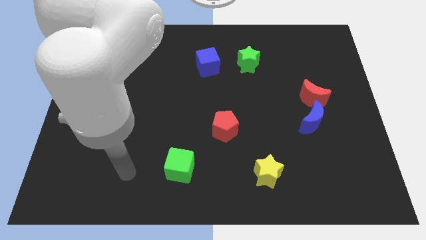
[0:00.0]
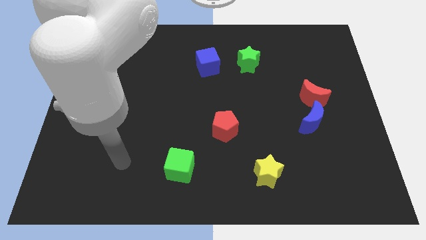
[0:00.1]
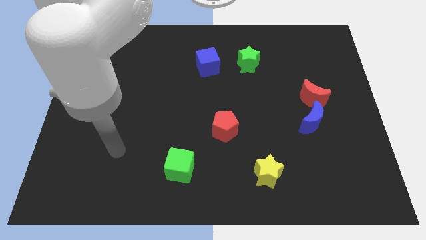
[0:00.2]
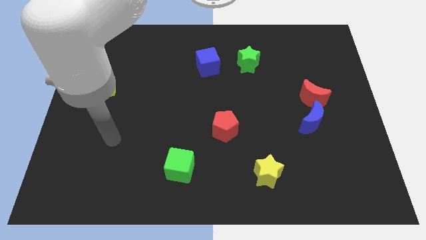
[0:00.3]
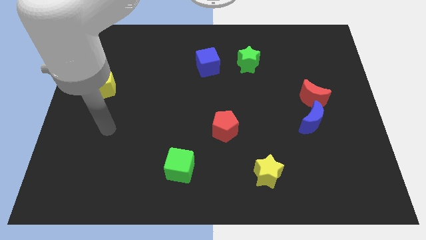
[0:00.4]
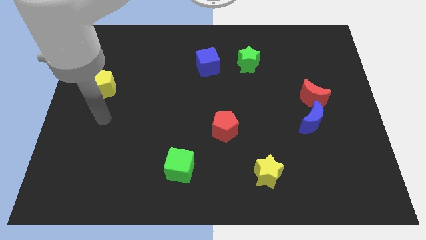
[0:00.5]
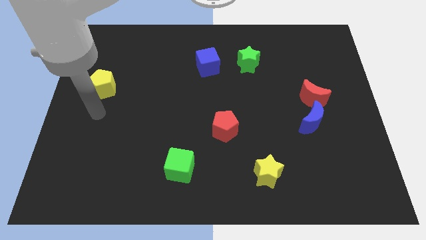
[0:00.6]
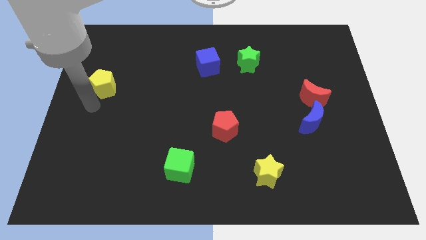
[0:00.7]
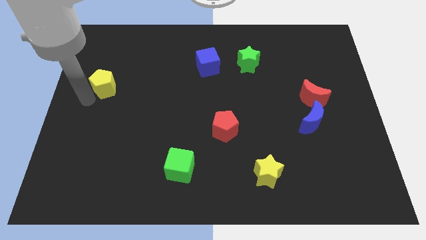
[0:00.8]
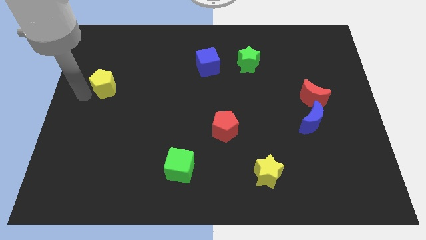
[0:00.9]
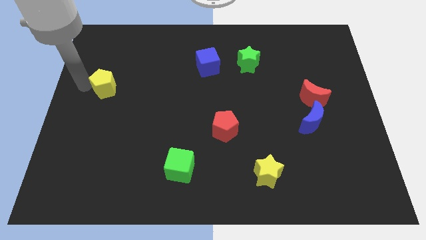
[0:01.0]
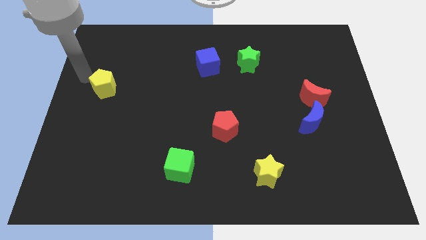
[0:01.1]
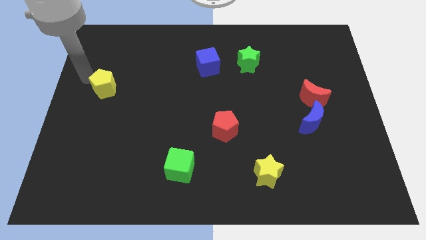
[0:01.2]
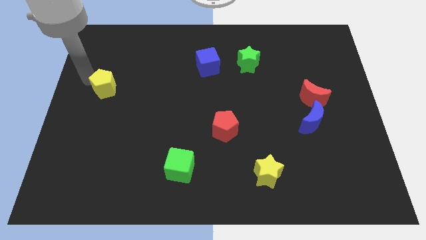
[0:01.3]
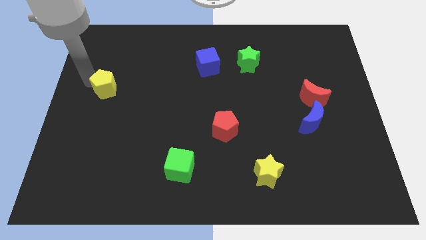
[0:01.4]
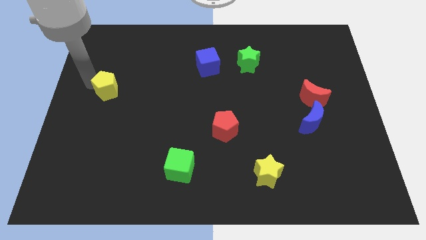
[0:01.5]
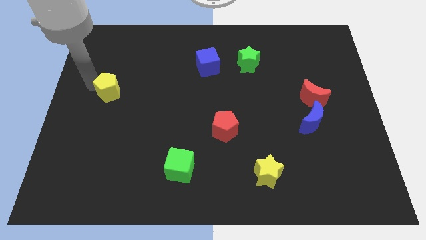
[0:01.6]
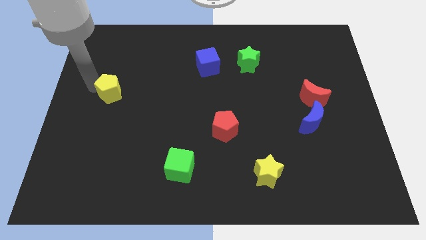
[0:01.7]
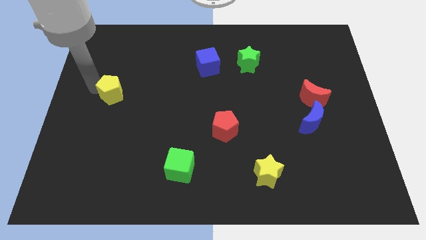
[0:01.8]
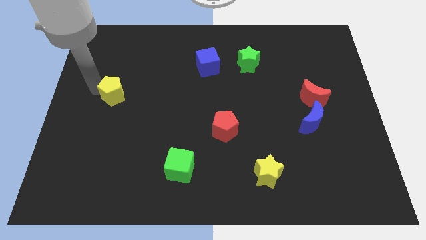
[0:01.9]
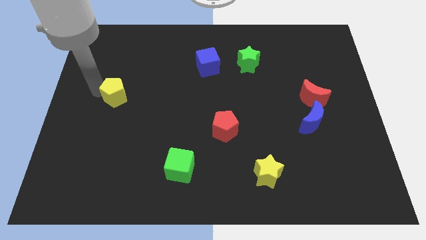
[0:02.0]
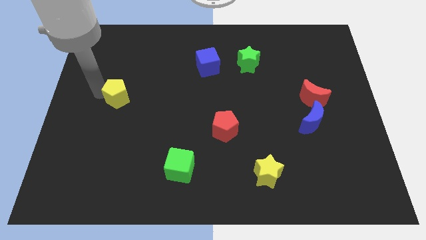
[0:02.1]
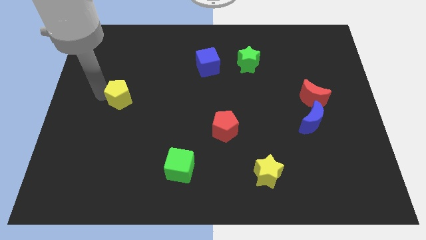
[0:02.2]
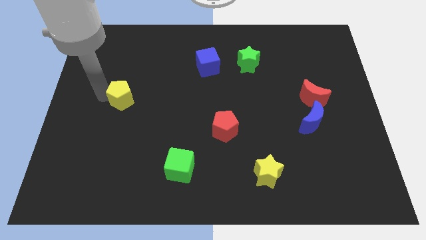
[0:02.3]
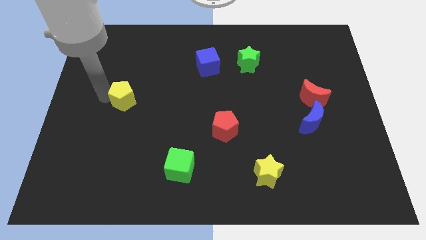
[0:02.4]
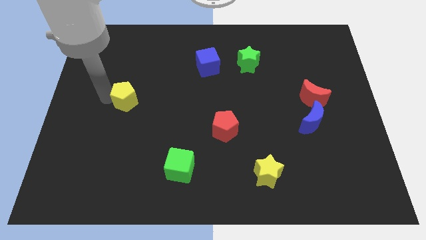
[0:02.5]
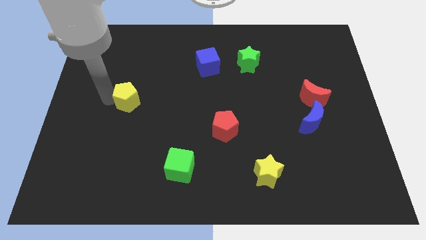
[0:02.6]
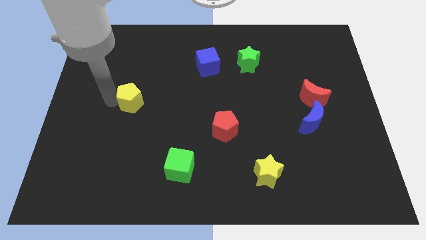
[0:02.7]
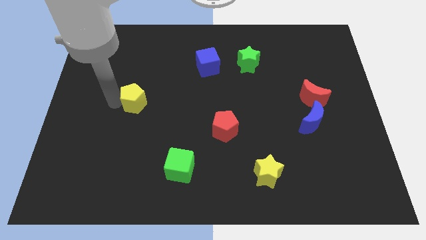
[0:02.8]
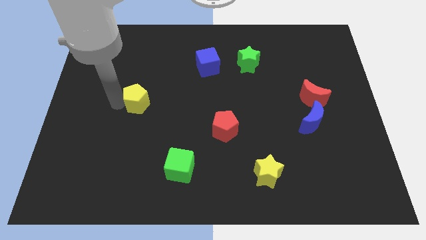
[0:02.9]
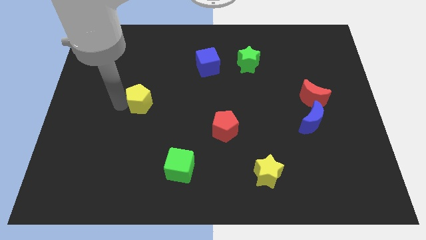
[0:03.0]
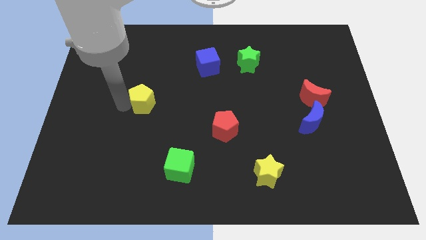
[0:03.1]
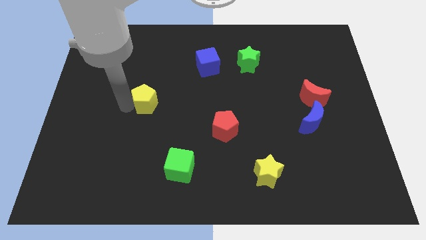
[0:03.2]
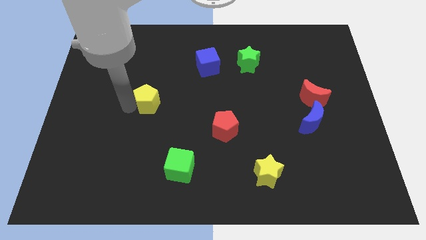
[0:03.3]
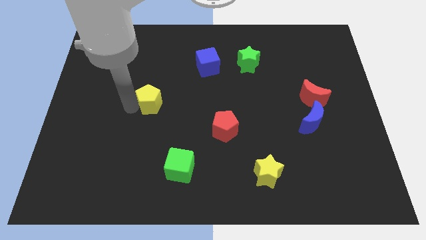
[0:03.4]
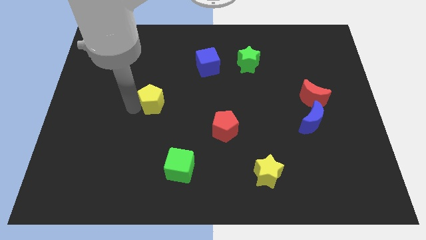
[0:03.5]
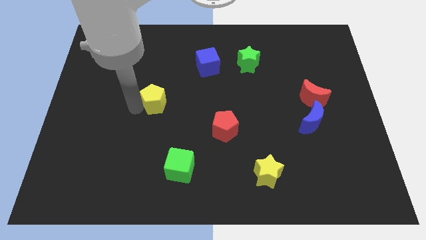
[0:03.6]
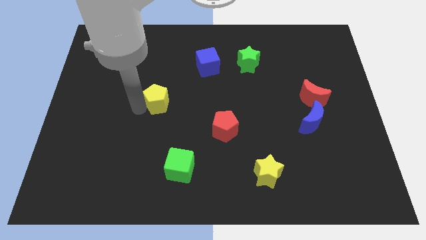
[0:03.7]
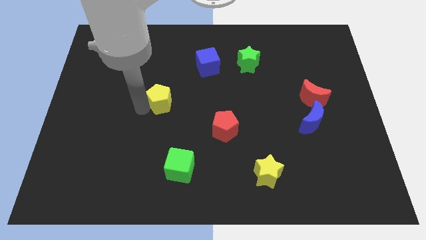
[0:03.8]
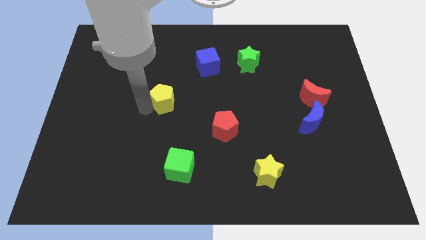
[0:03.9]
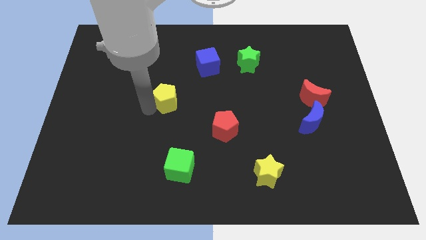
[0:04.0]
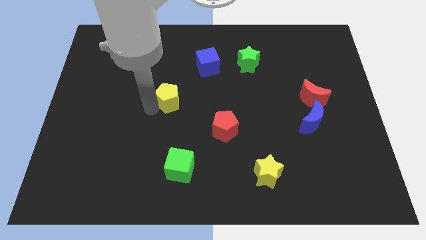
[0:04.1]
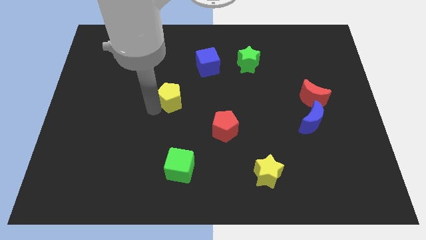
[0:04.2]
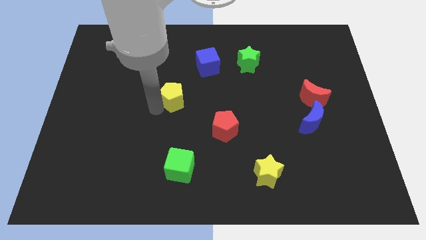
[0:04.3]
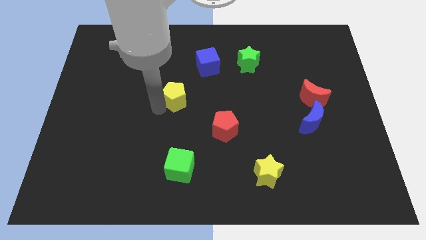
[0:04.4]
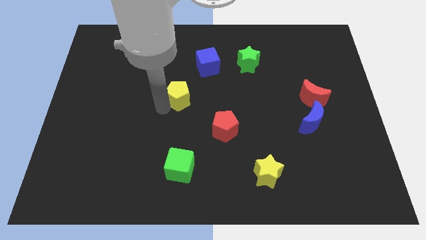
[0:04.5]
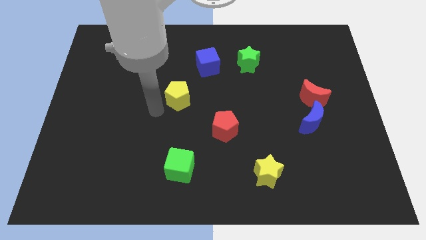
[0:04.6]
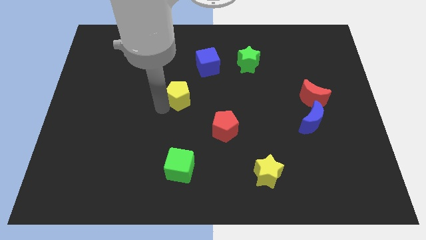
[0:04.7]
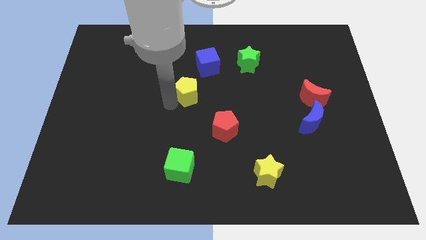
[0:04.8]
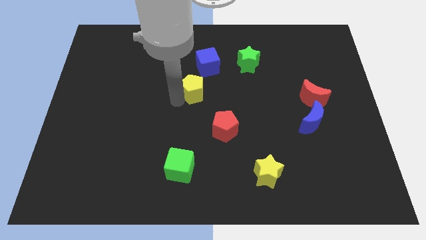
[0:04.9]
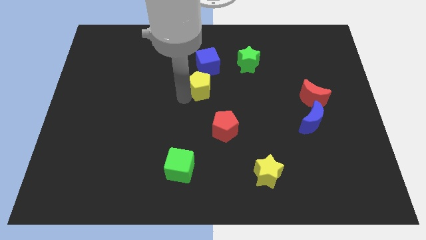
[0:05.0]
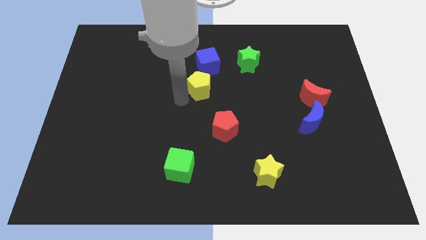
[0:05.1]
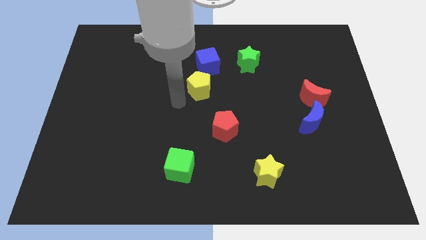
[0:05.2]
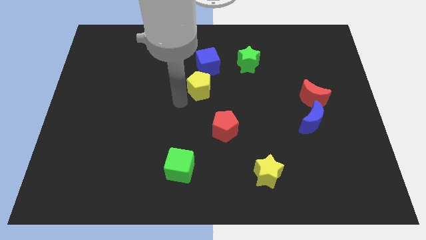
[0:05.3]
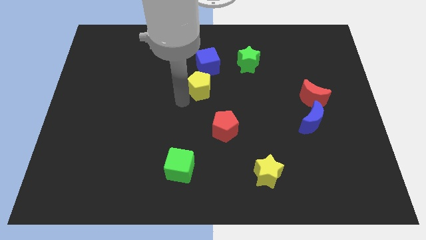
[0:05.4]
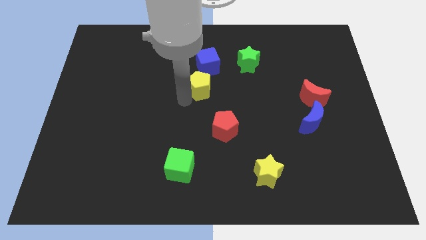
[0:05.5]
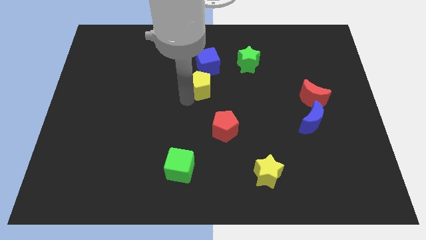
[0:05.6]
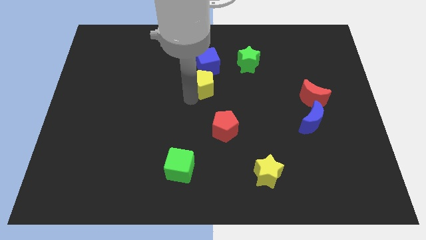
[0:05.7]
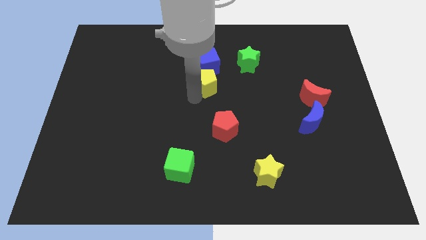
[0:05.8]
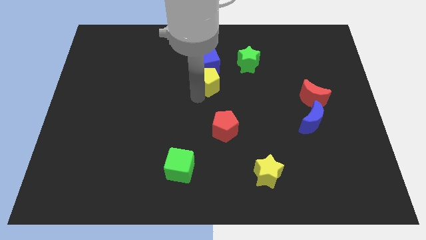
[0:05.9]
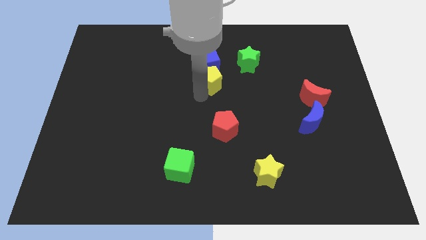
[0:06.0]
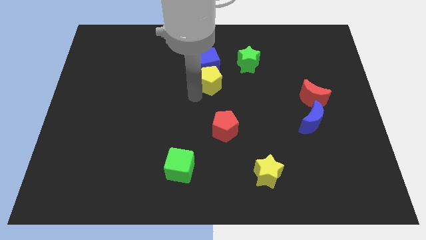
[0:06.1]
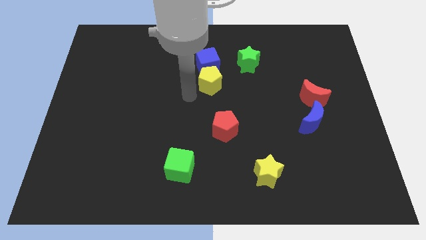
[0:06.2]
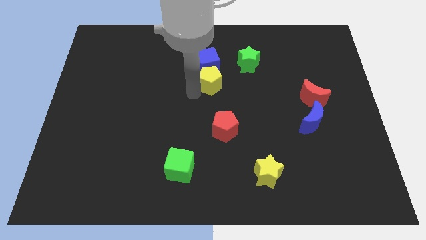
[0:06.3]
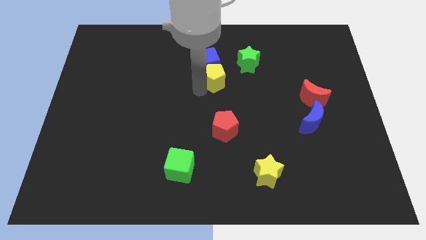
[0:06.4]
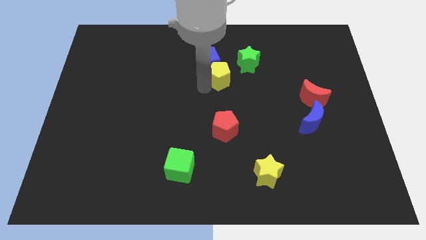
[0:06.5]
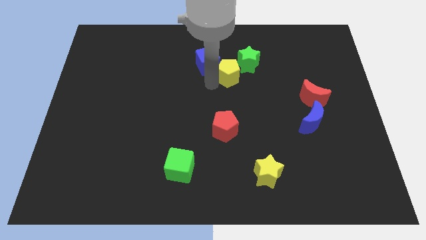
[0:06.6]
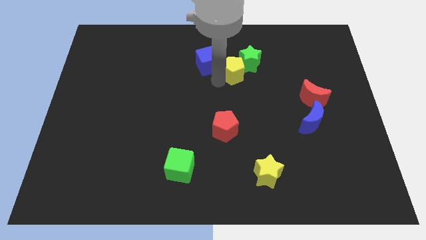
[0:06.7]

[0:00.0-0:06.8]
slide the yellow pentagon towards the green star

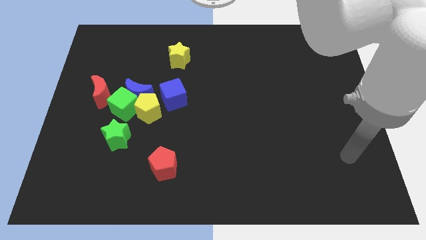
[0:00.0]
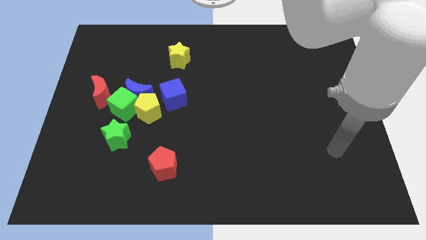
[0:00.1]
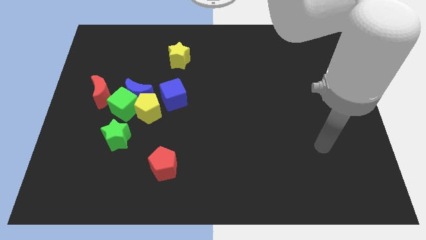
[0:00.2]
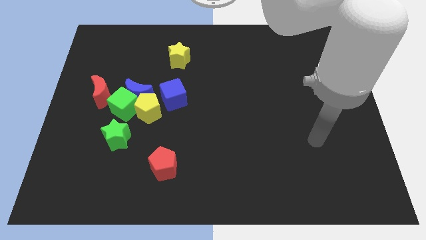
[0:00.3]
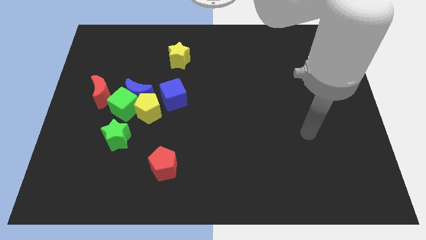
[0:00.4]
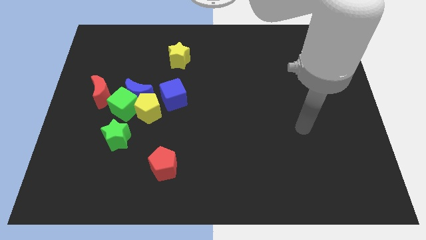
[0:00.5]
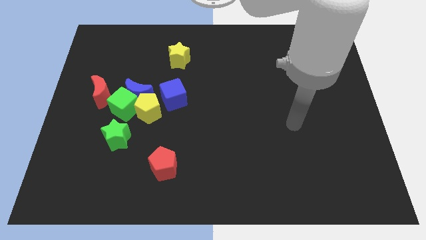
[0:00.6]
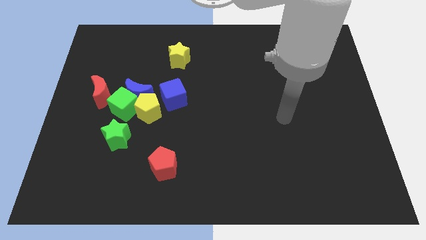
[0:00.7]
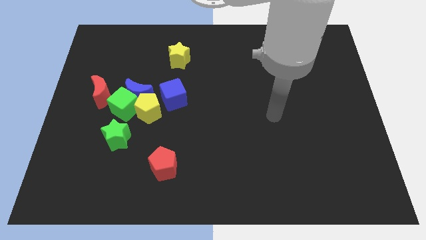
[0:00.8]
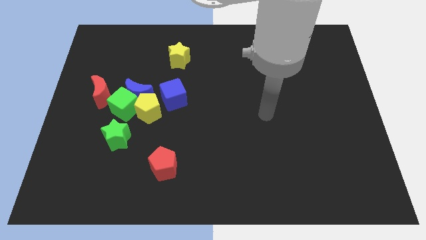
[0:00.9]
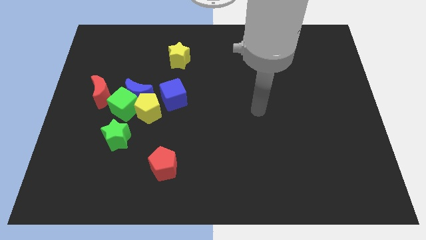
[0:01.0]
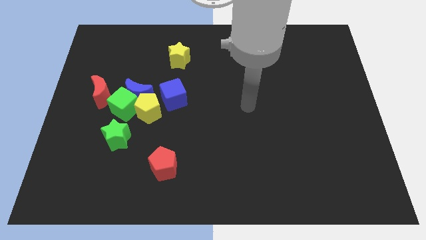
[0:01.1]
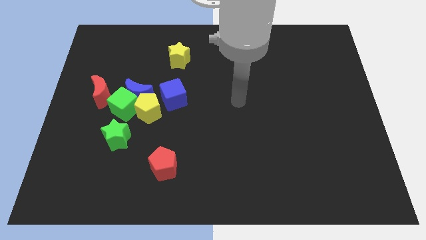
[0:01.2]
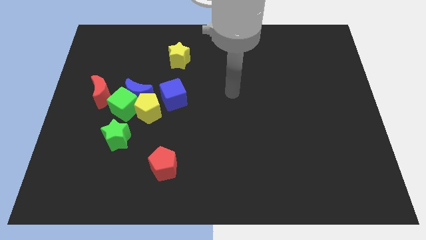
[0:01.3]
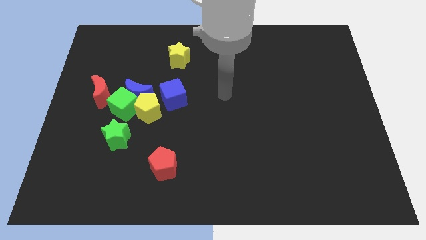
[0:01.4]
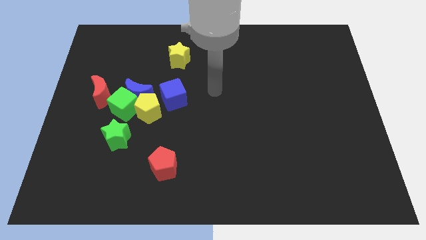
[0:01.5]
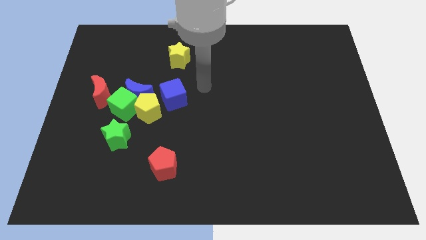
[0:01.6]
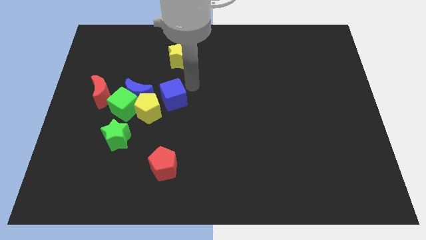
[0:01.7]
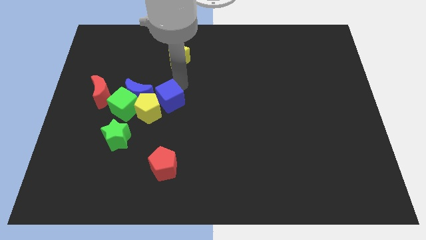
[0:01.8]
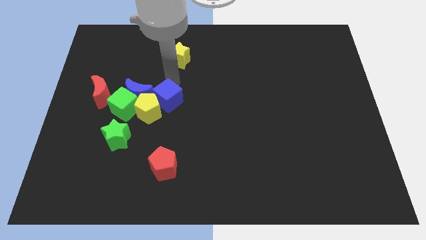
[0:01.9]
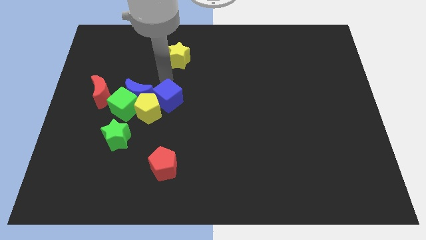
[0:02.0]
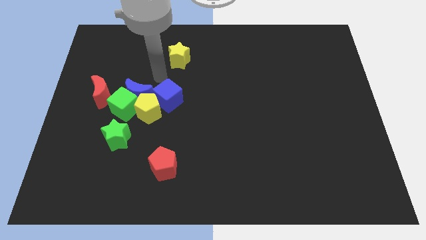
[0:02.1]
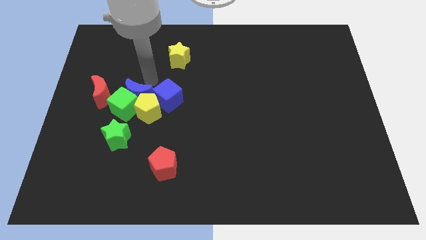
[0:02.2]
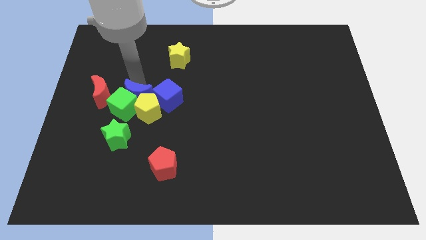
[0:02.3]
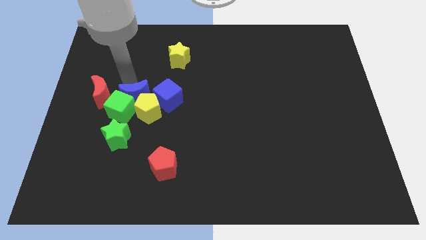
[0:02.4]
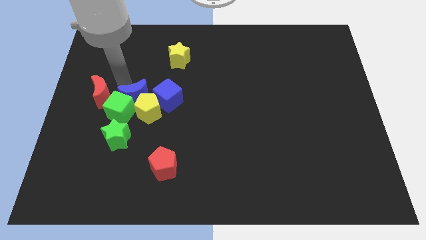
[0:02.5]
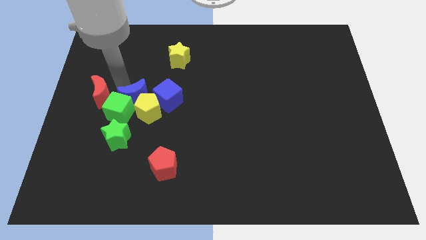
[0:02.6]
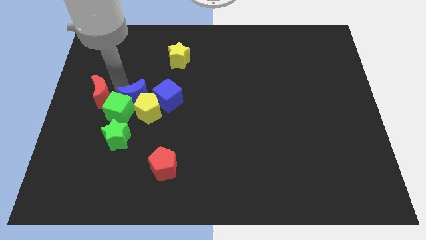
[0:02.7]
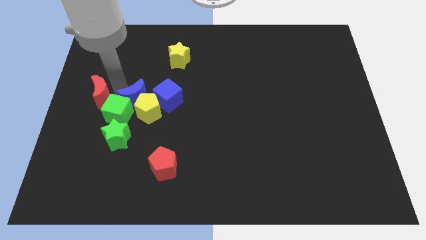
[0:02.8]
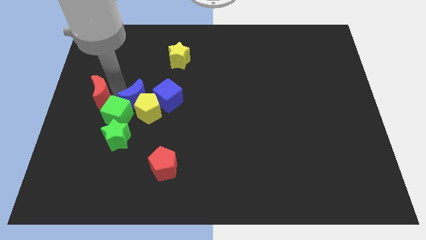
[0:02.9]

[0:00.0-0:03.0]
push the green cube next to the green star
